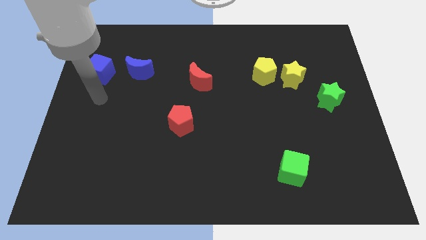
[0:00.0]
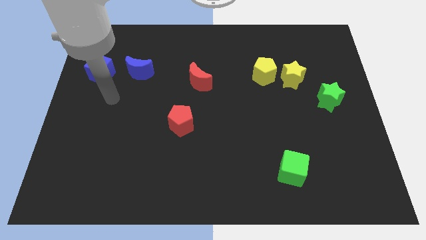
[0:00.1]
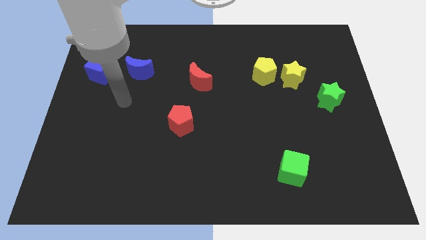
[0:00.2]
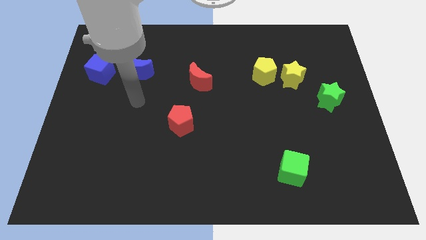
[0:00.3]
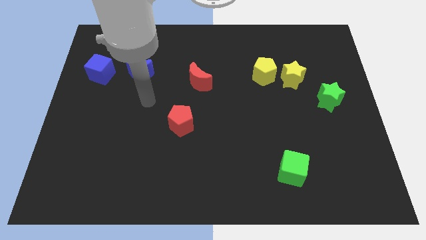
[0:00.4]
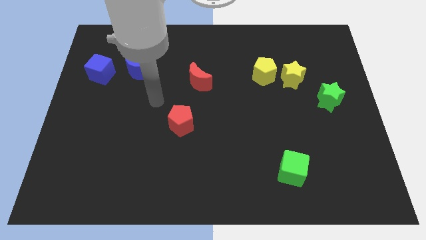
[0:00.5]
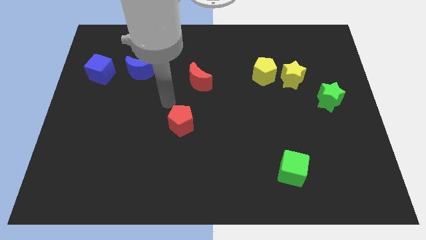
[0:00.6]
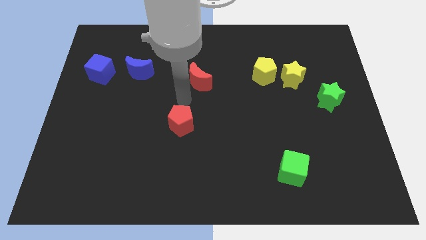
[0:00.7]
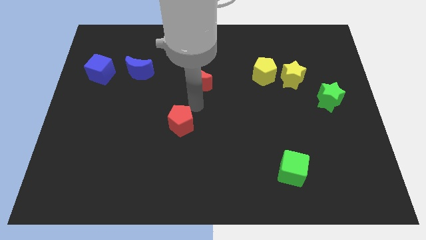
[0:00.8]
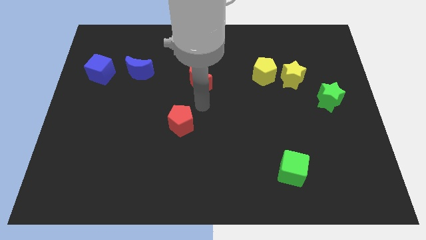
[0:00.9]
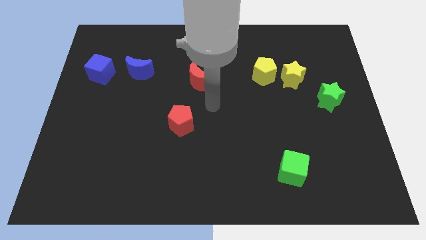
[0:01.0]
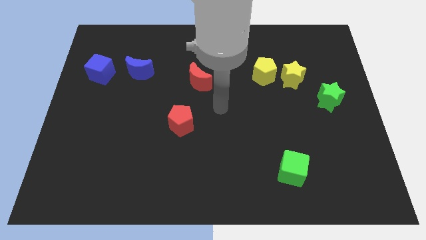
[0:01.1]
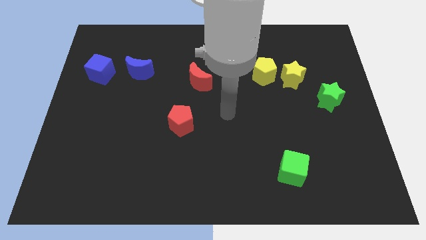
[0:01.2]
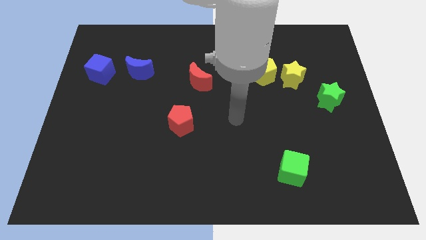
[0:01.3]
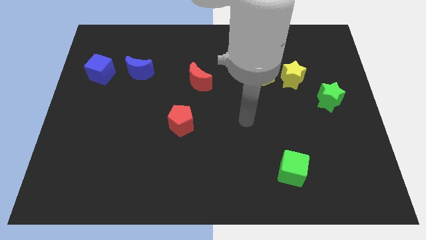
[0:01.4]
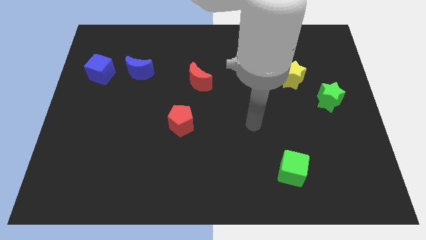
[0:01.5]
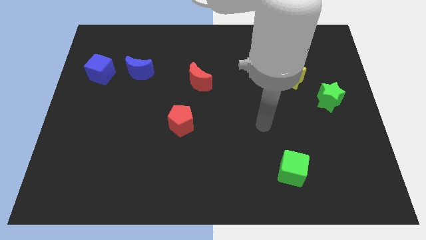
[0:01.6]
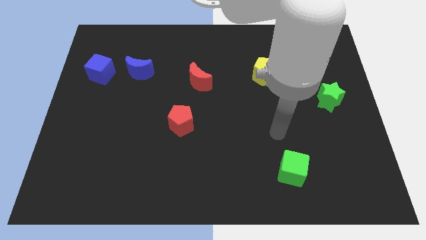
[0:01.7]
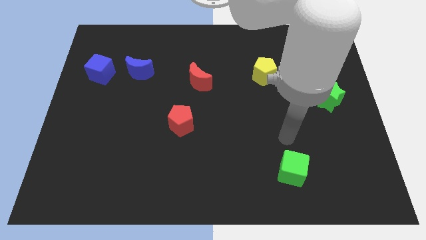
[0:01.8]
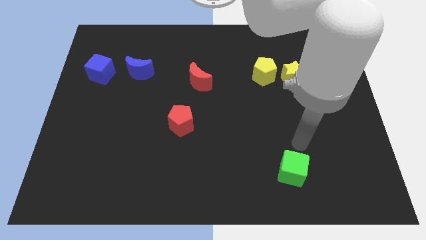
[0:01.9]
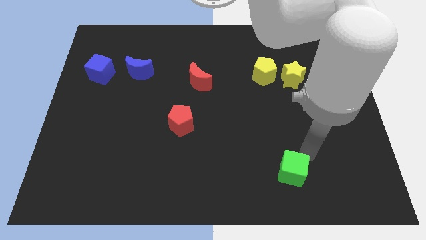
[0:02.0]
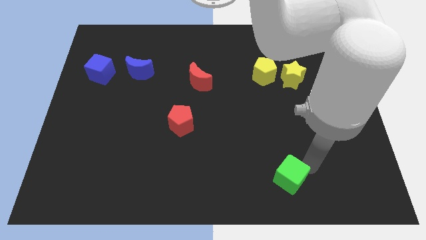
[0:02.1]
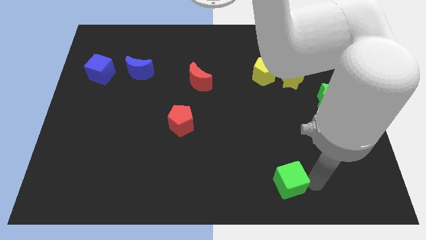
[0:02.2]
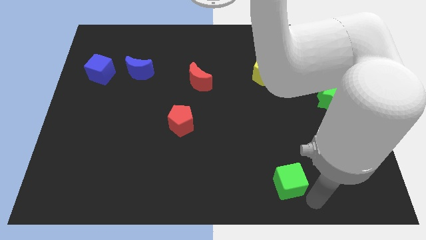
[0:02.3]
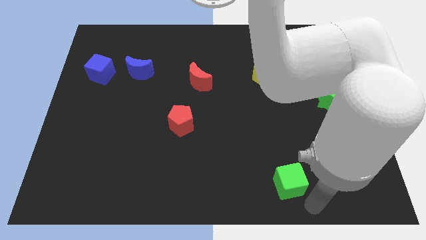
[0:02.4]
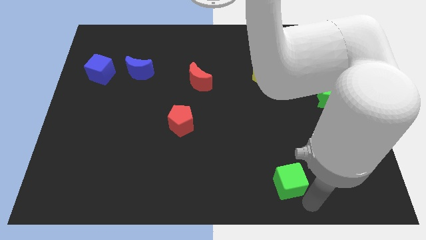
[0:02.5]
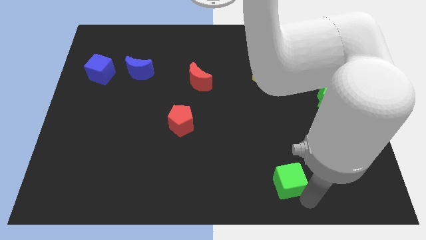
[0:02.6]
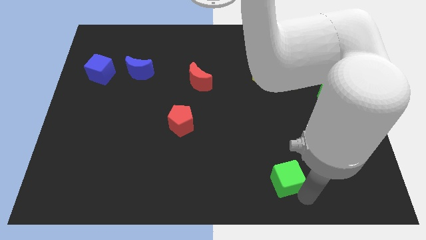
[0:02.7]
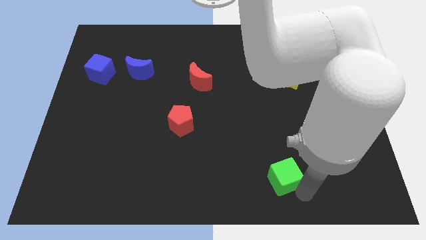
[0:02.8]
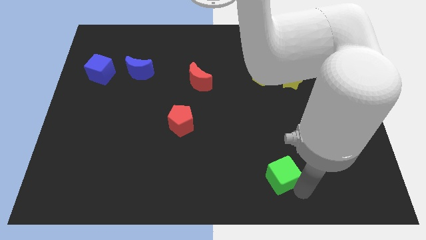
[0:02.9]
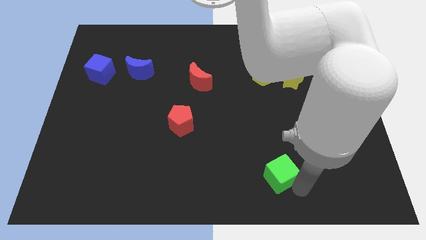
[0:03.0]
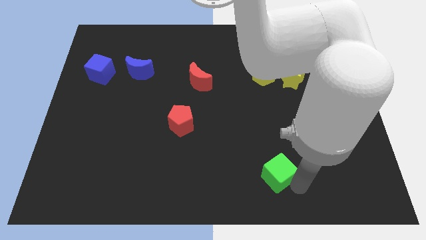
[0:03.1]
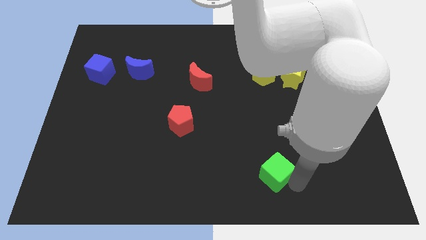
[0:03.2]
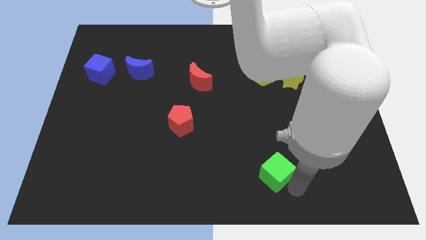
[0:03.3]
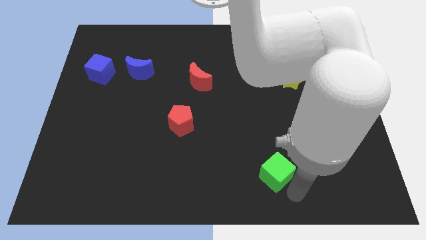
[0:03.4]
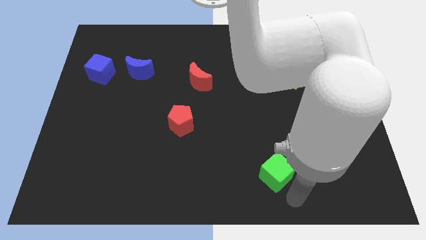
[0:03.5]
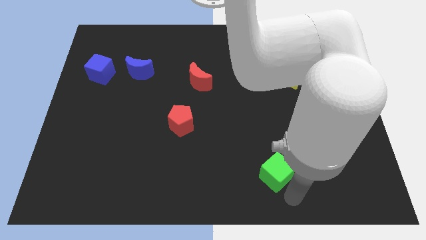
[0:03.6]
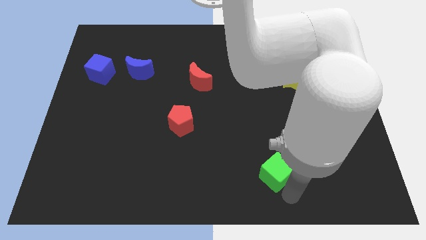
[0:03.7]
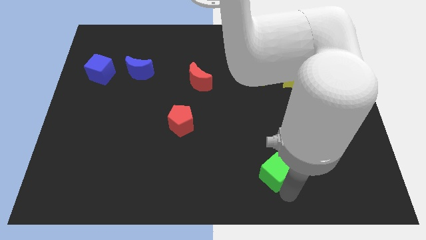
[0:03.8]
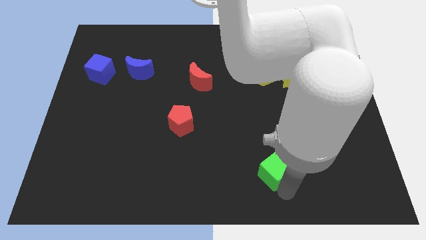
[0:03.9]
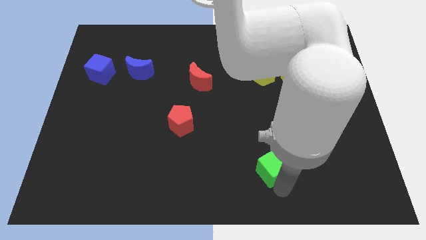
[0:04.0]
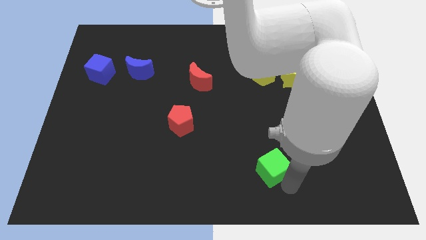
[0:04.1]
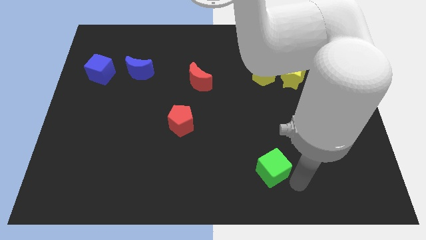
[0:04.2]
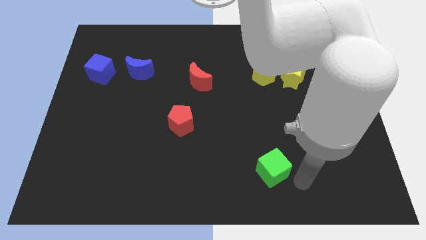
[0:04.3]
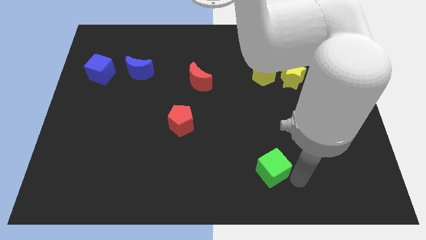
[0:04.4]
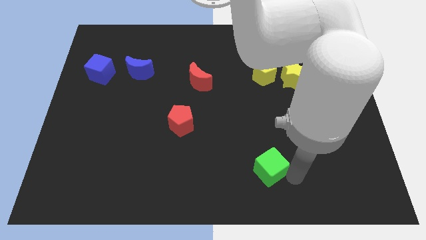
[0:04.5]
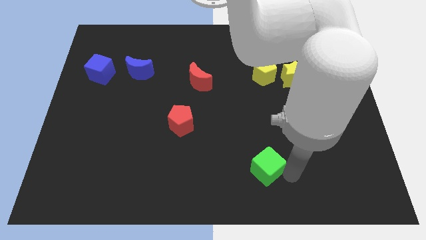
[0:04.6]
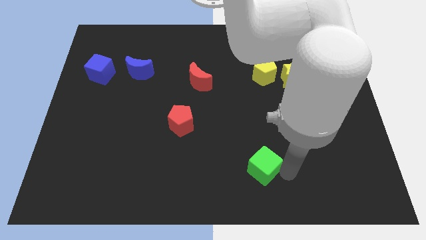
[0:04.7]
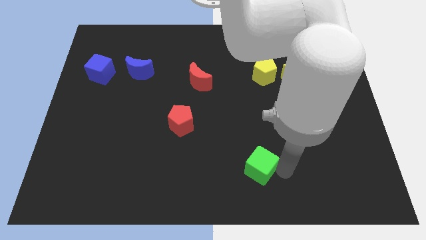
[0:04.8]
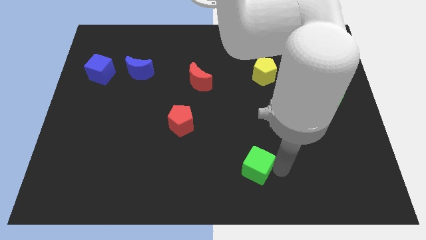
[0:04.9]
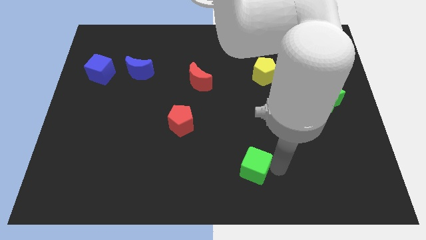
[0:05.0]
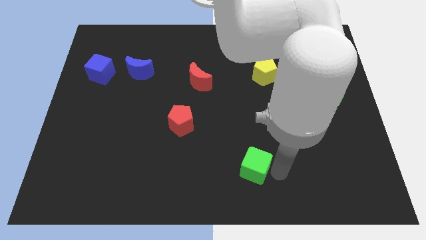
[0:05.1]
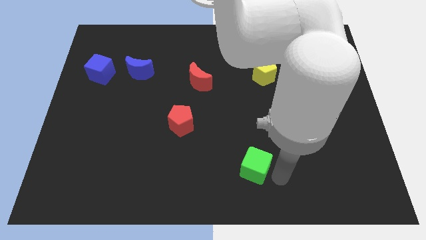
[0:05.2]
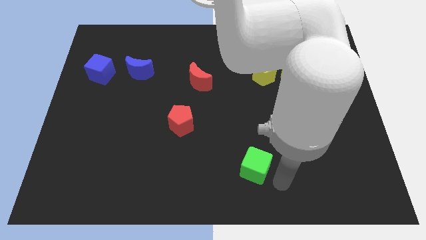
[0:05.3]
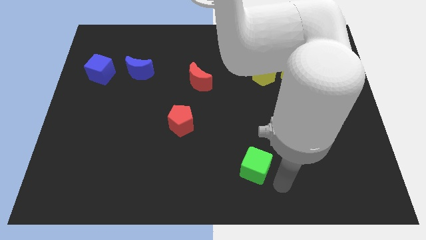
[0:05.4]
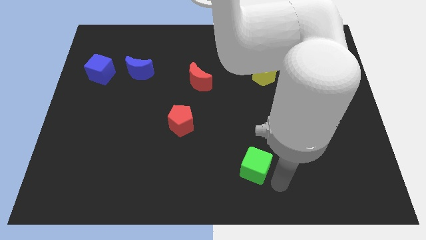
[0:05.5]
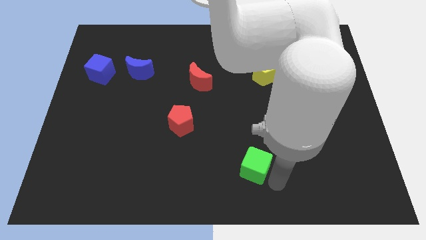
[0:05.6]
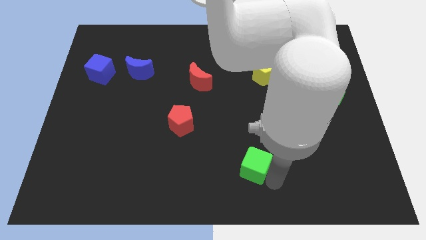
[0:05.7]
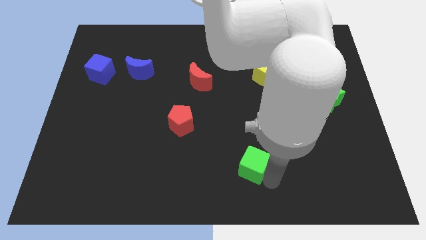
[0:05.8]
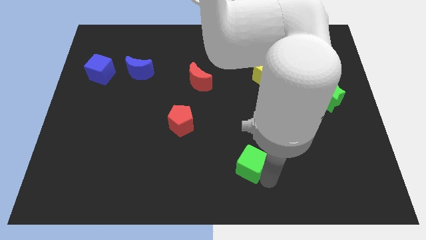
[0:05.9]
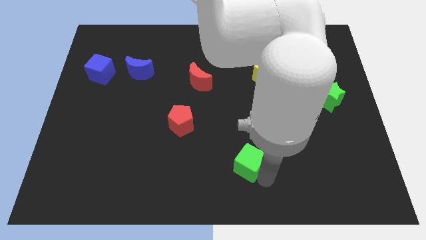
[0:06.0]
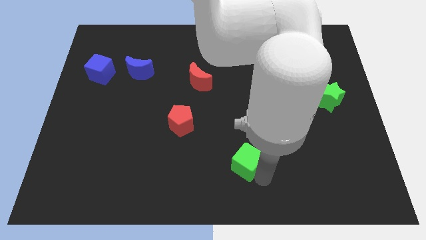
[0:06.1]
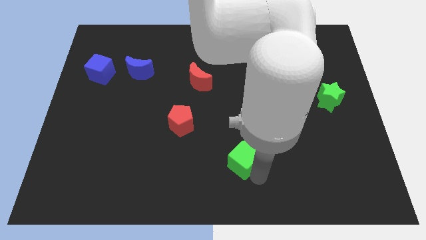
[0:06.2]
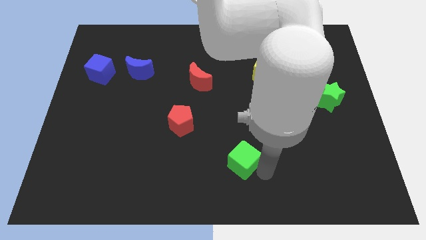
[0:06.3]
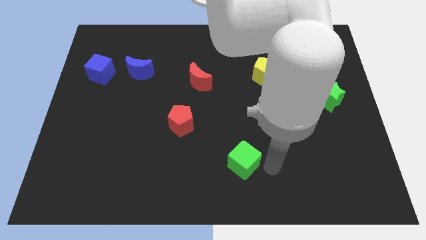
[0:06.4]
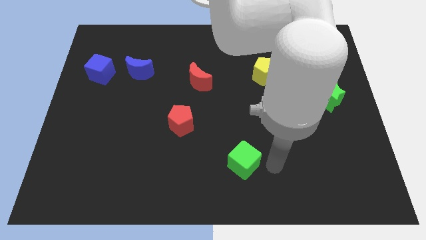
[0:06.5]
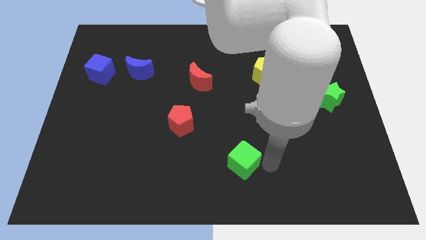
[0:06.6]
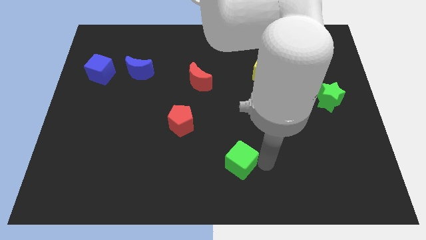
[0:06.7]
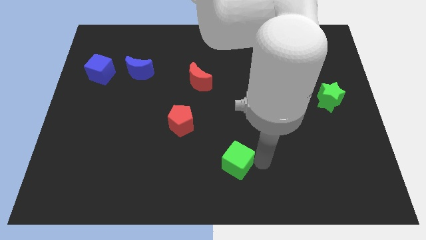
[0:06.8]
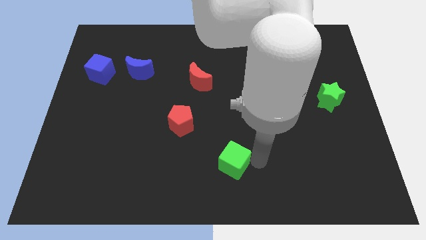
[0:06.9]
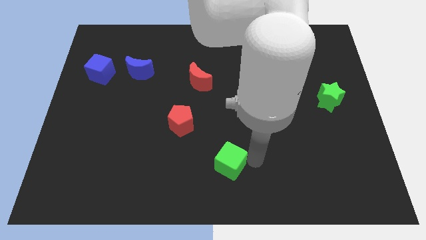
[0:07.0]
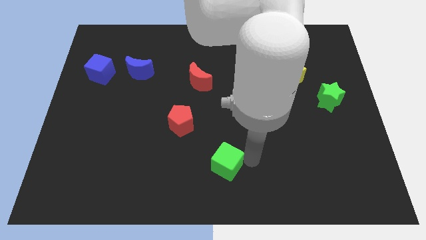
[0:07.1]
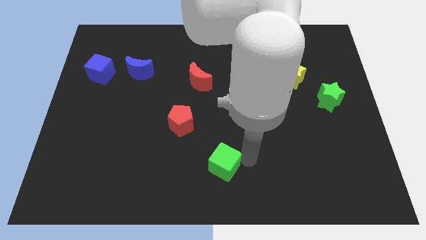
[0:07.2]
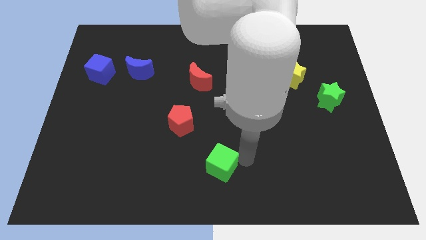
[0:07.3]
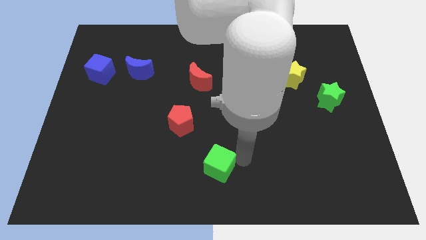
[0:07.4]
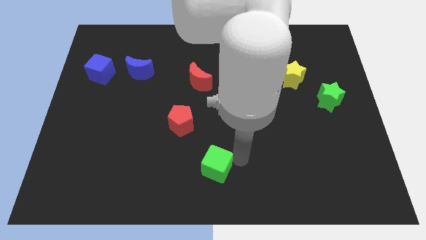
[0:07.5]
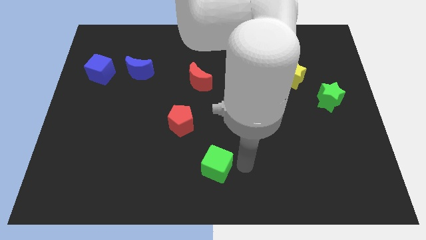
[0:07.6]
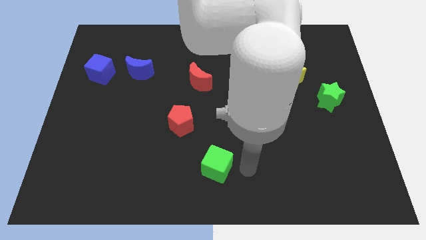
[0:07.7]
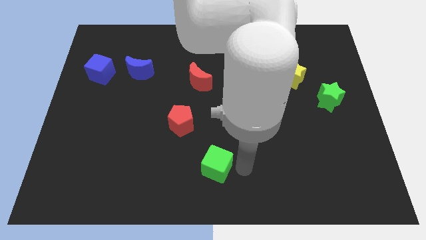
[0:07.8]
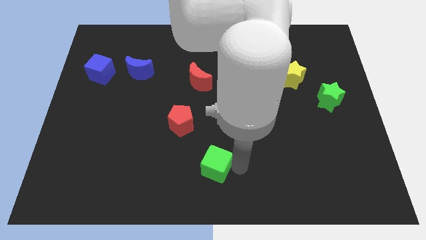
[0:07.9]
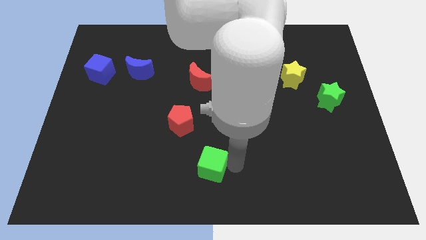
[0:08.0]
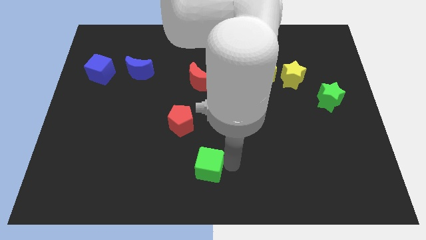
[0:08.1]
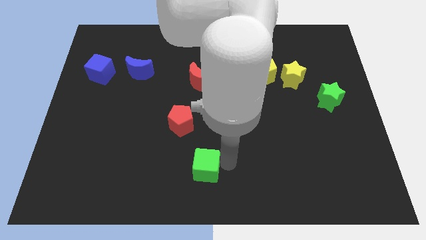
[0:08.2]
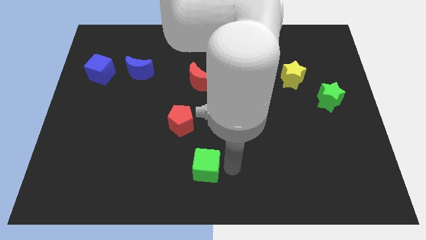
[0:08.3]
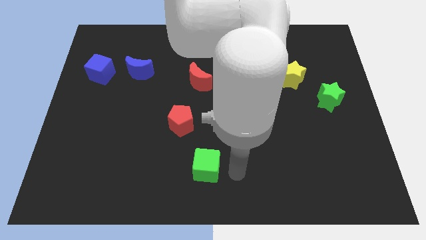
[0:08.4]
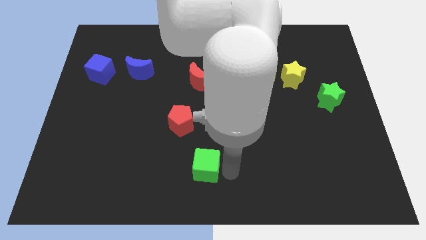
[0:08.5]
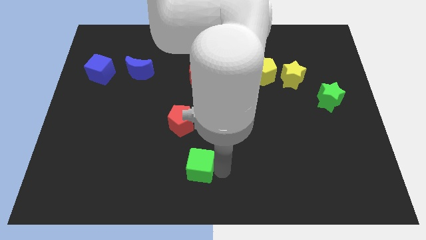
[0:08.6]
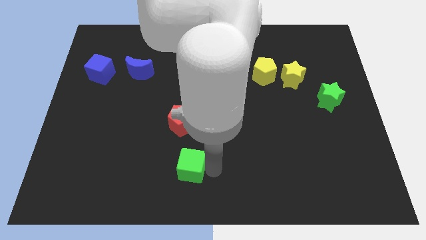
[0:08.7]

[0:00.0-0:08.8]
push the green cube to the left
